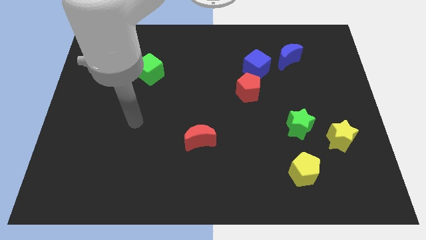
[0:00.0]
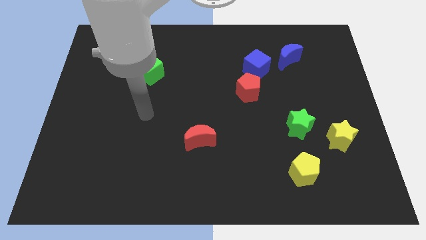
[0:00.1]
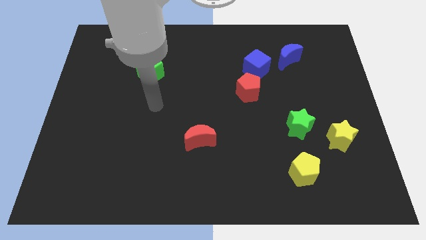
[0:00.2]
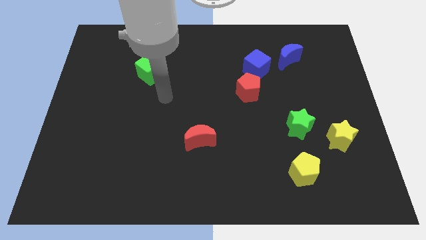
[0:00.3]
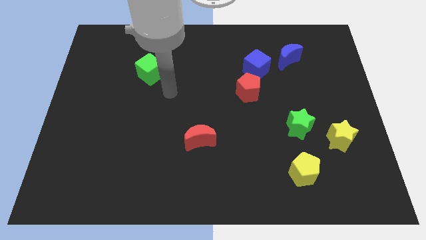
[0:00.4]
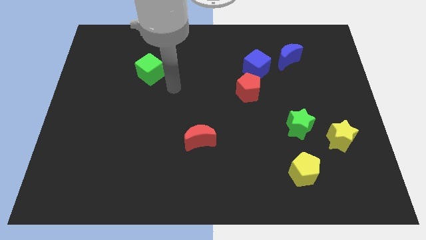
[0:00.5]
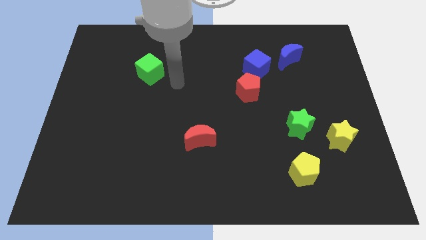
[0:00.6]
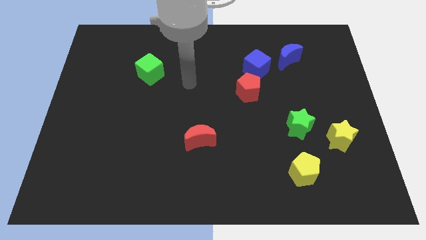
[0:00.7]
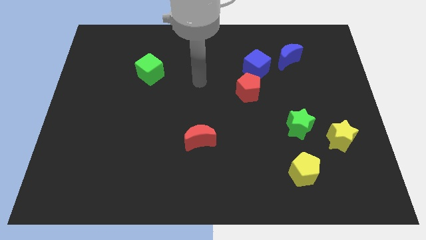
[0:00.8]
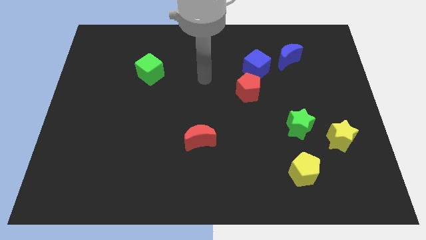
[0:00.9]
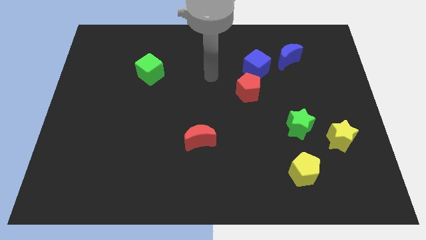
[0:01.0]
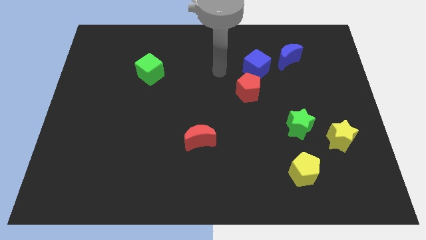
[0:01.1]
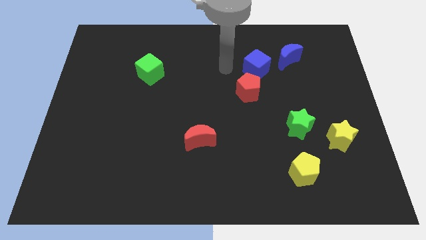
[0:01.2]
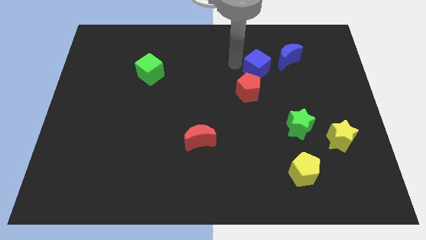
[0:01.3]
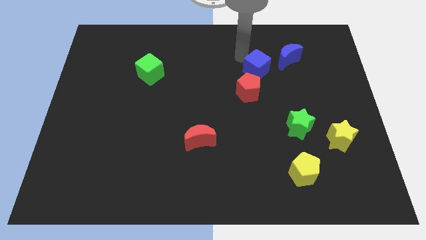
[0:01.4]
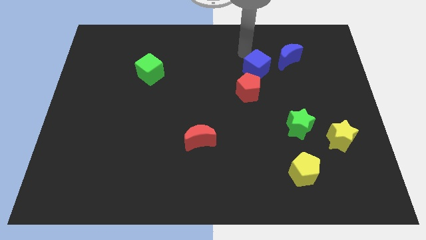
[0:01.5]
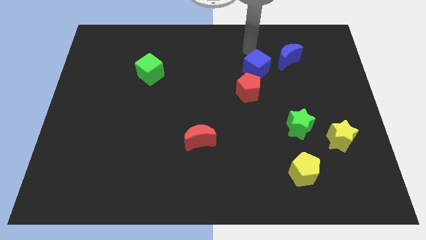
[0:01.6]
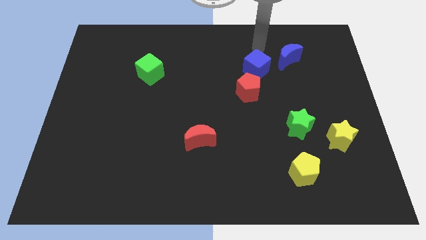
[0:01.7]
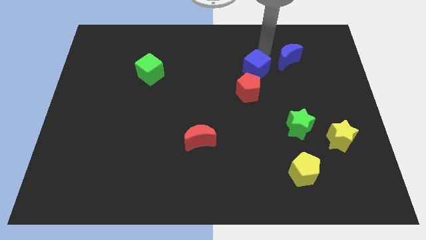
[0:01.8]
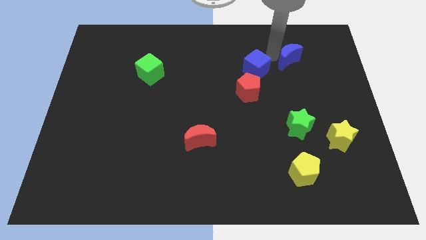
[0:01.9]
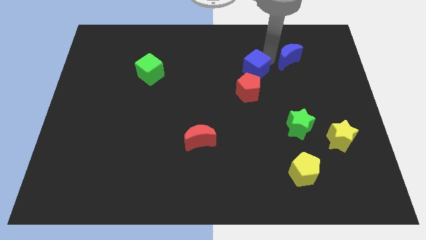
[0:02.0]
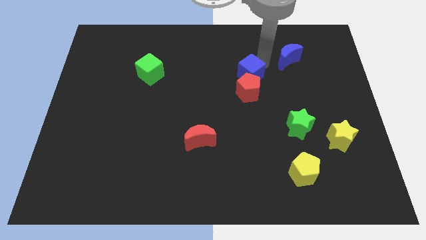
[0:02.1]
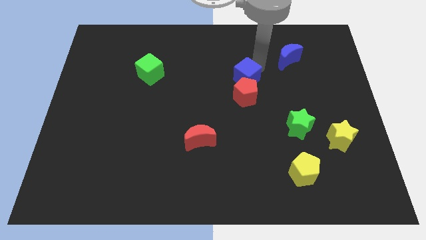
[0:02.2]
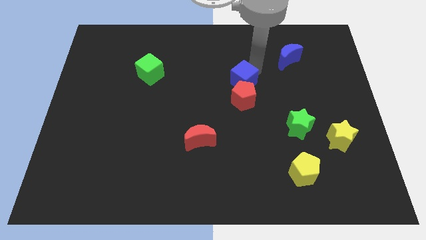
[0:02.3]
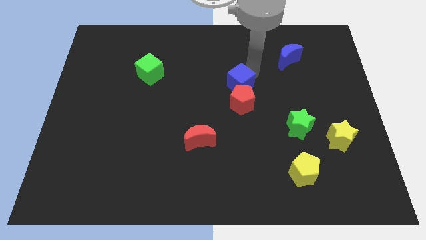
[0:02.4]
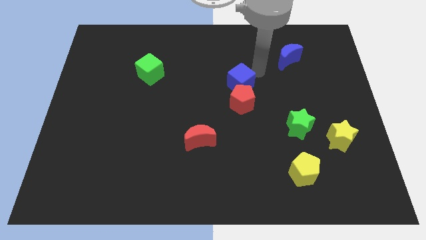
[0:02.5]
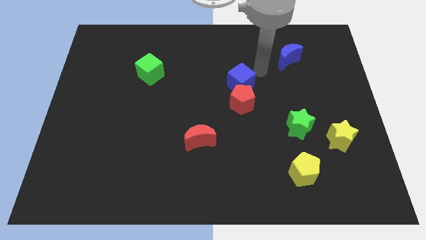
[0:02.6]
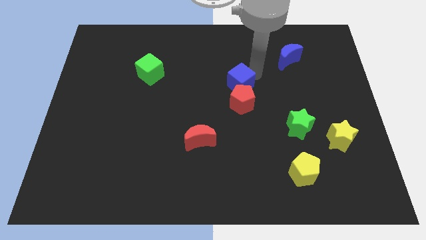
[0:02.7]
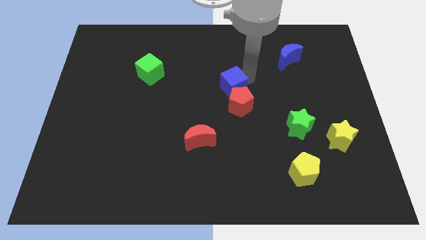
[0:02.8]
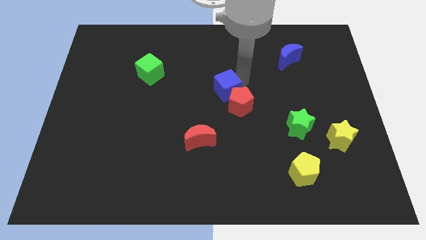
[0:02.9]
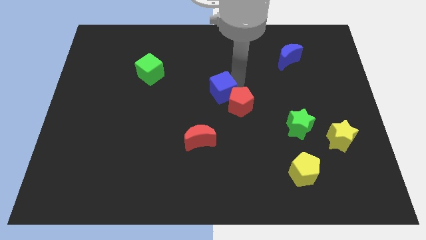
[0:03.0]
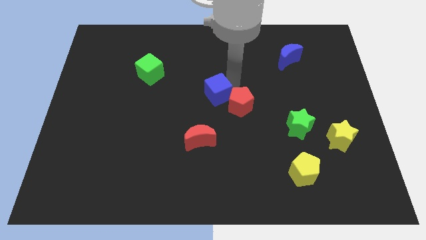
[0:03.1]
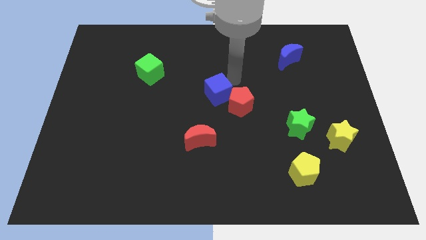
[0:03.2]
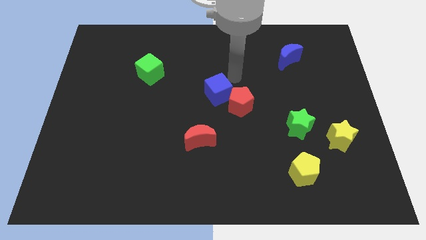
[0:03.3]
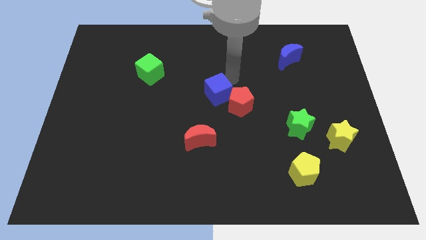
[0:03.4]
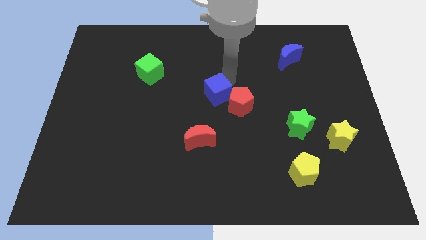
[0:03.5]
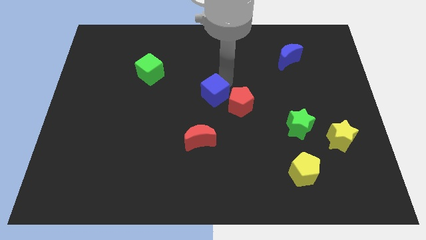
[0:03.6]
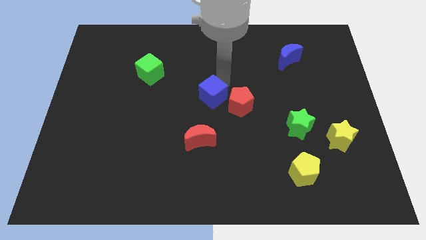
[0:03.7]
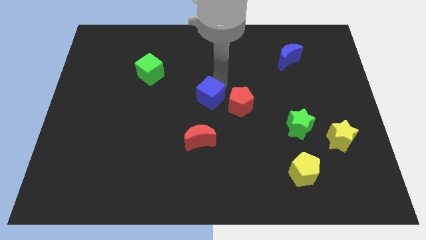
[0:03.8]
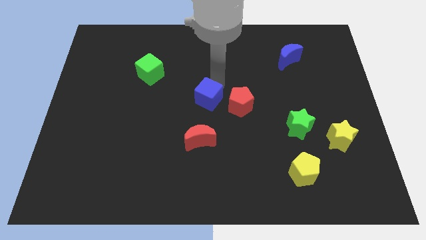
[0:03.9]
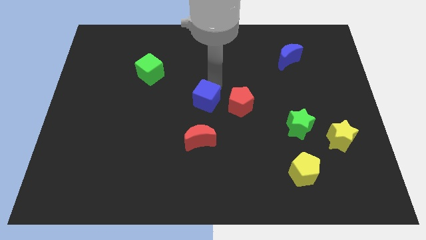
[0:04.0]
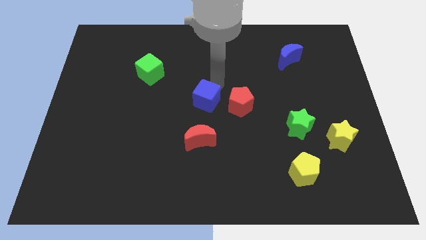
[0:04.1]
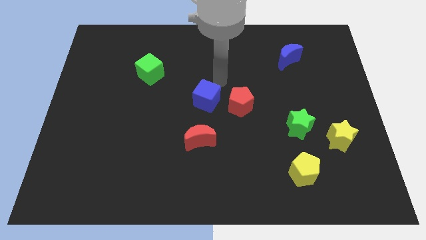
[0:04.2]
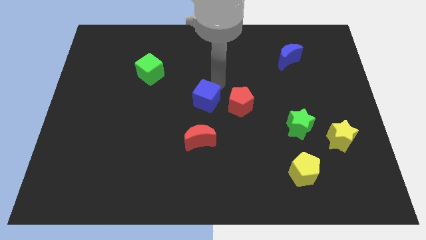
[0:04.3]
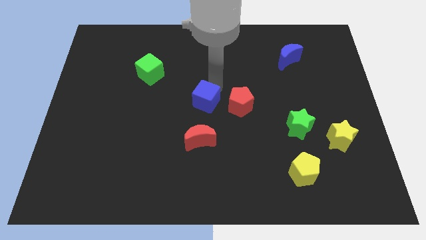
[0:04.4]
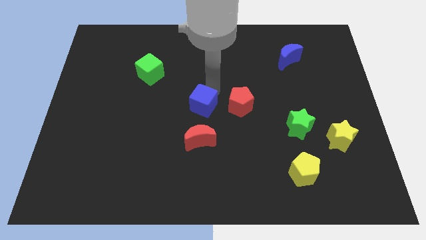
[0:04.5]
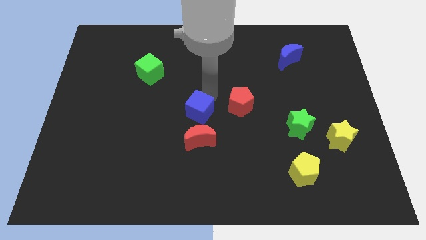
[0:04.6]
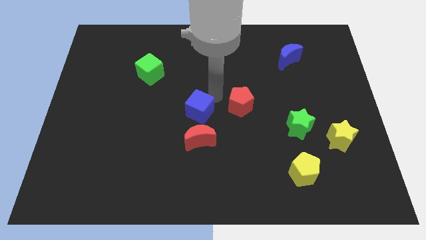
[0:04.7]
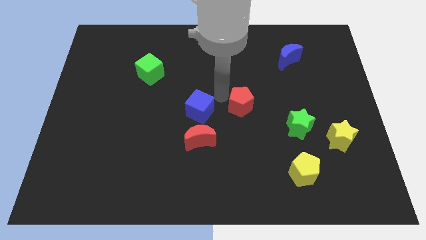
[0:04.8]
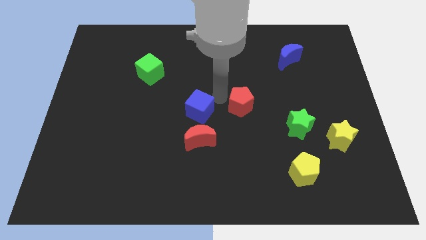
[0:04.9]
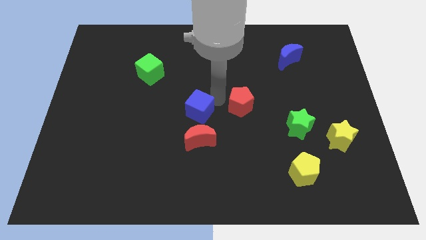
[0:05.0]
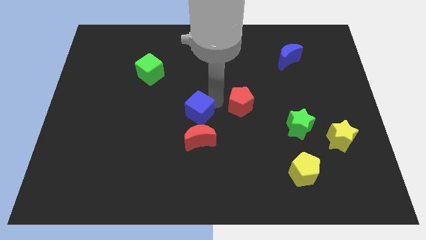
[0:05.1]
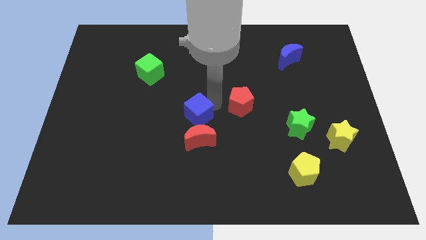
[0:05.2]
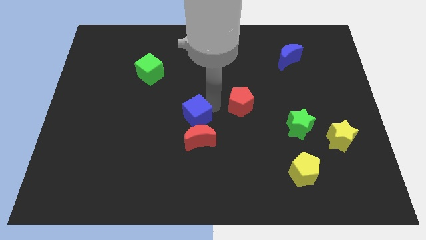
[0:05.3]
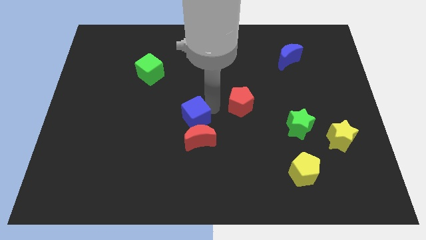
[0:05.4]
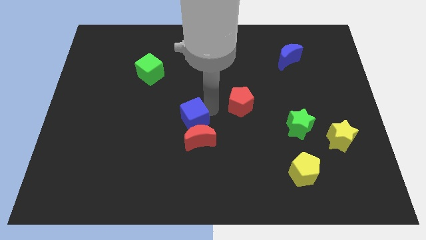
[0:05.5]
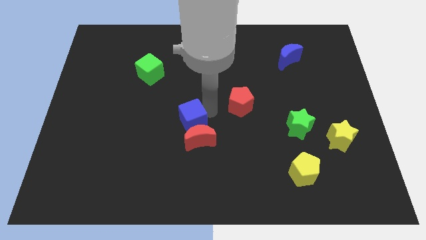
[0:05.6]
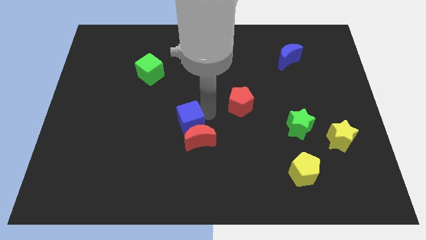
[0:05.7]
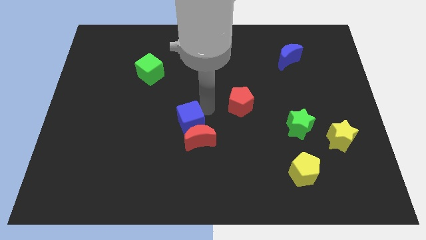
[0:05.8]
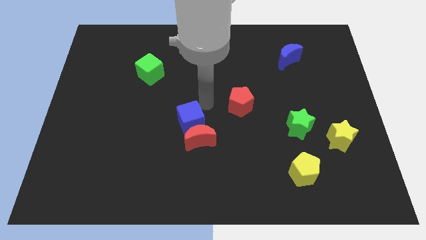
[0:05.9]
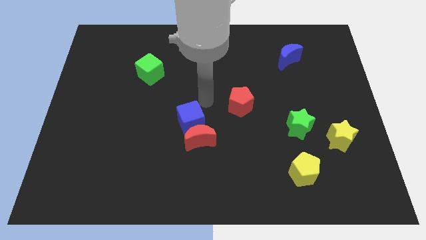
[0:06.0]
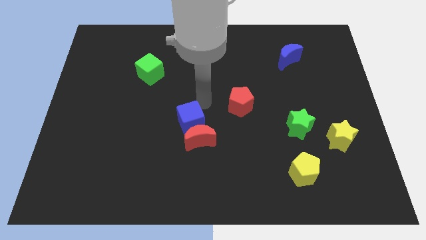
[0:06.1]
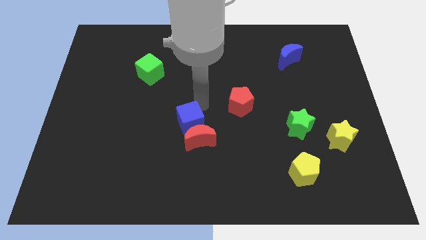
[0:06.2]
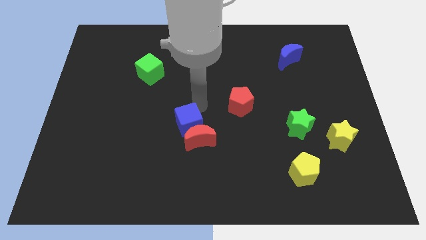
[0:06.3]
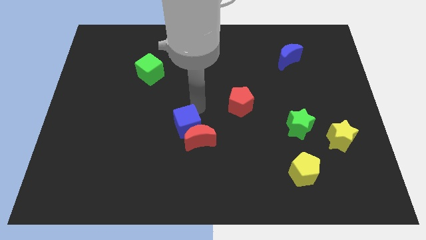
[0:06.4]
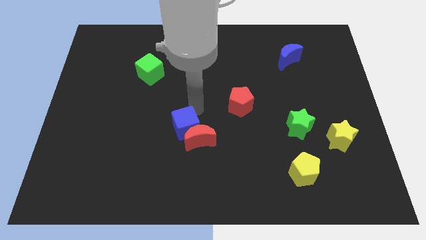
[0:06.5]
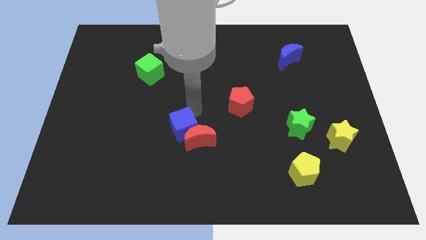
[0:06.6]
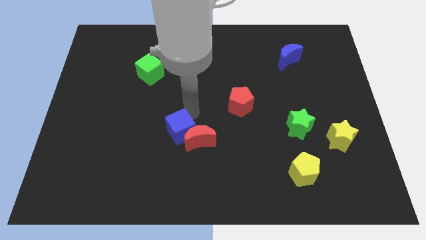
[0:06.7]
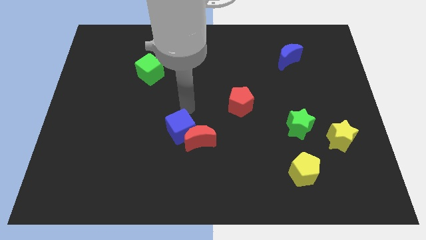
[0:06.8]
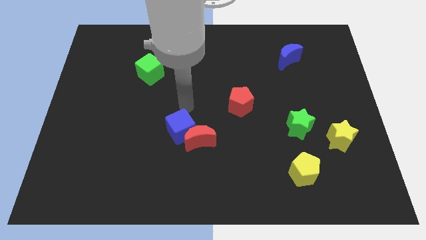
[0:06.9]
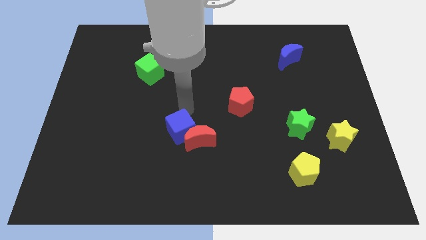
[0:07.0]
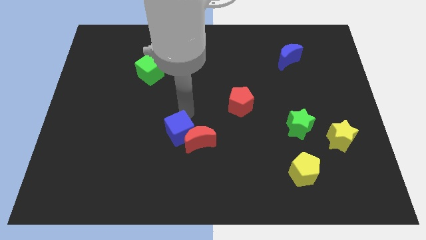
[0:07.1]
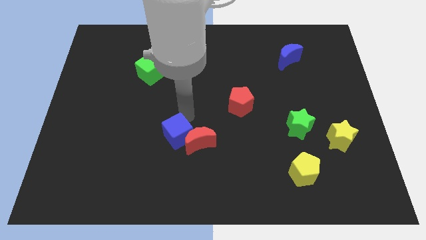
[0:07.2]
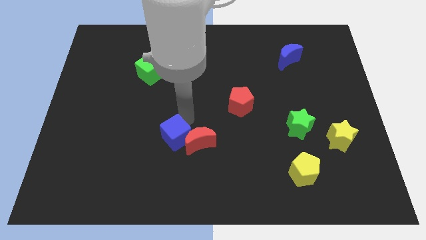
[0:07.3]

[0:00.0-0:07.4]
push the blue cube diagonally down and to the left of the red moon
